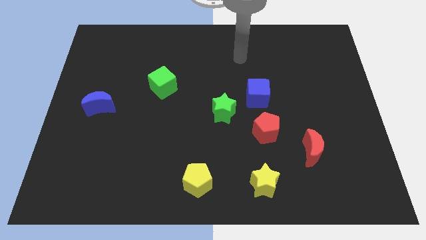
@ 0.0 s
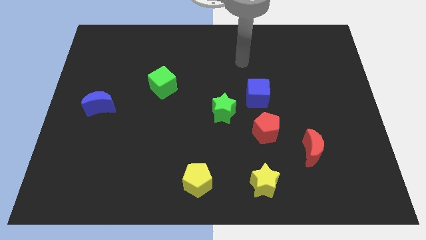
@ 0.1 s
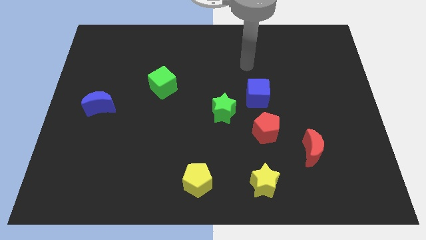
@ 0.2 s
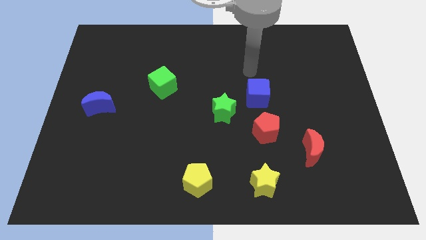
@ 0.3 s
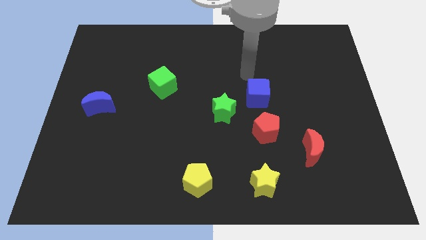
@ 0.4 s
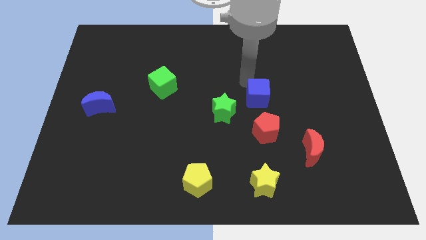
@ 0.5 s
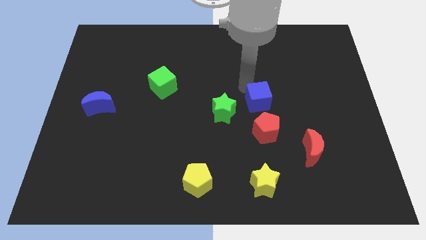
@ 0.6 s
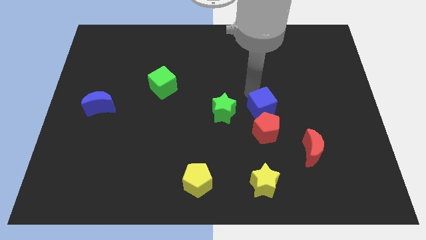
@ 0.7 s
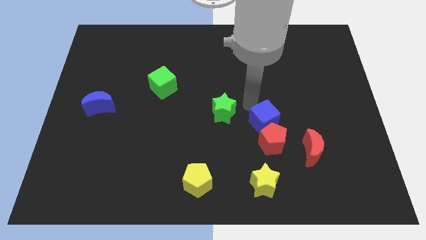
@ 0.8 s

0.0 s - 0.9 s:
pull the green star apart from the blue cube

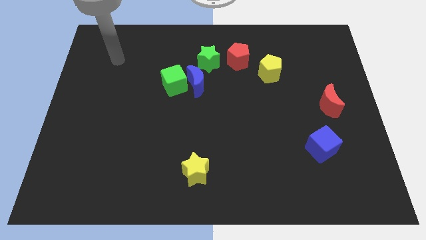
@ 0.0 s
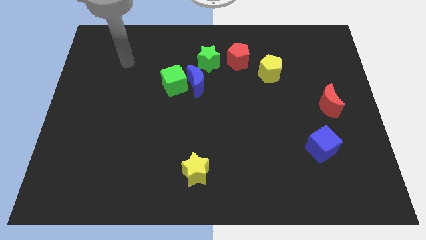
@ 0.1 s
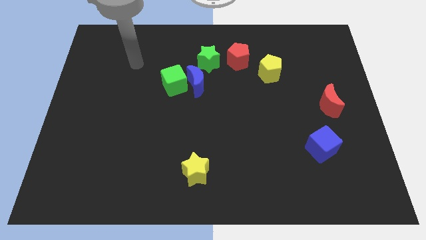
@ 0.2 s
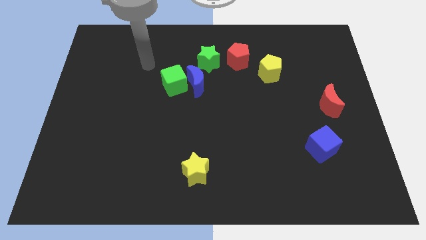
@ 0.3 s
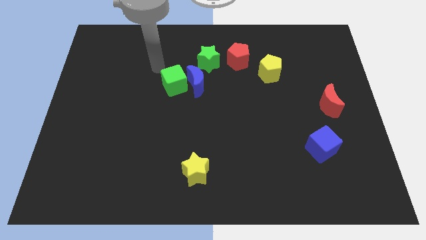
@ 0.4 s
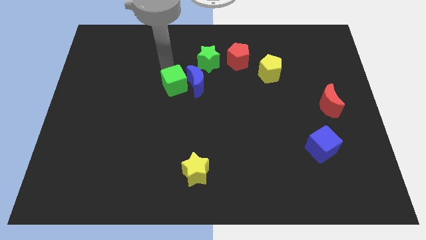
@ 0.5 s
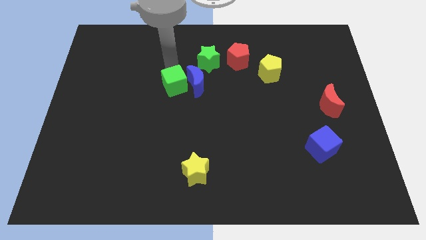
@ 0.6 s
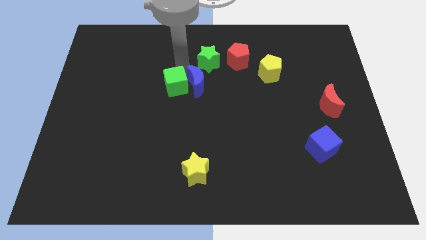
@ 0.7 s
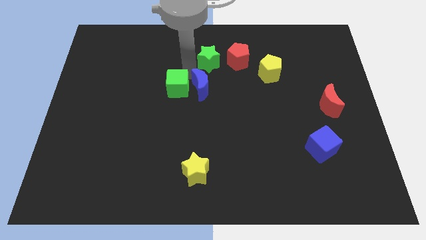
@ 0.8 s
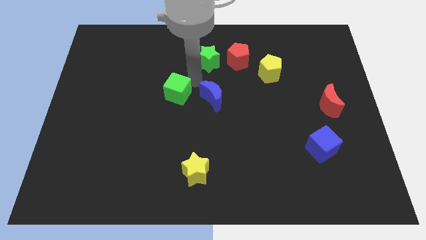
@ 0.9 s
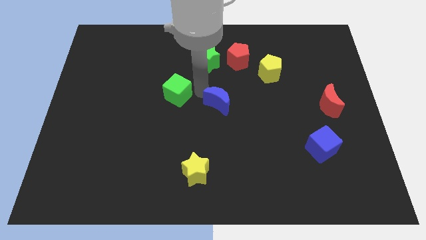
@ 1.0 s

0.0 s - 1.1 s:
pull the green cube apart from the blue moon

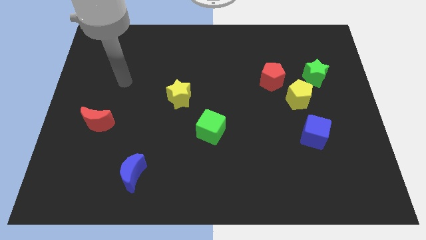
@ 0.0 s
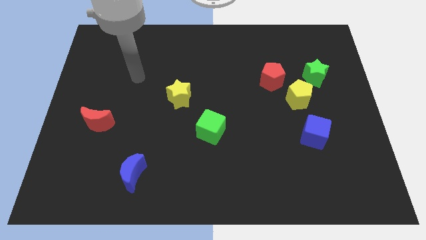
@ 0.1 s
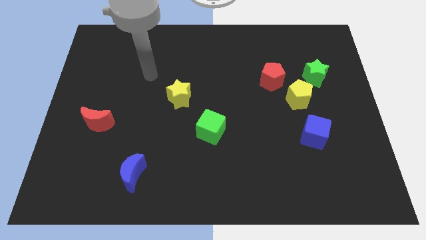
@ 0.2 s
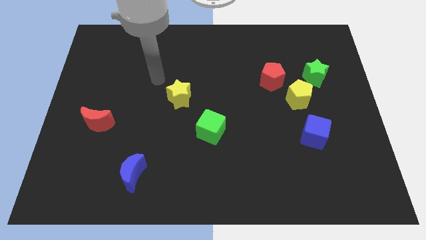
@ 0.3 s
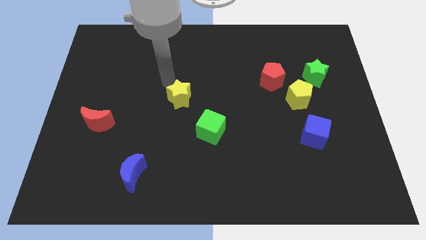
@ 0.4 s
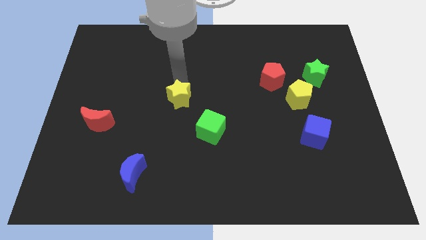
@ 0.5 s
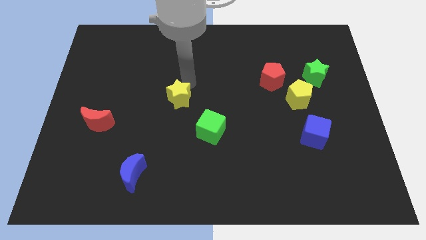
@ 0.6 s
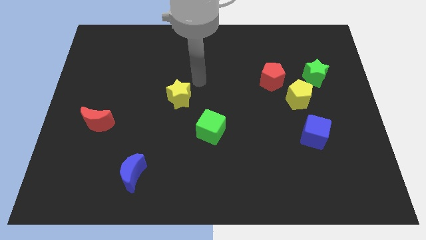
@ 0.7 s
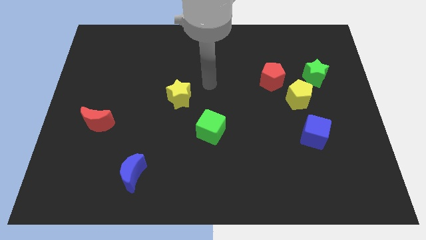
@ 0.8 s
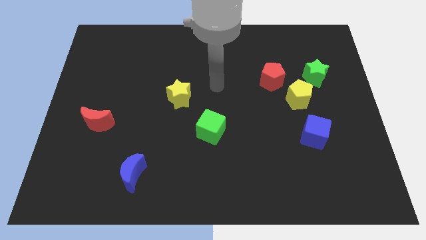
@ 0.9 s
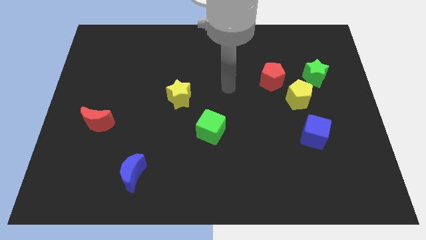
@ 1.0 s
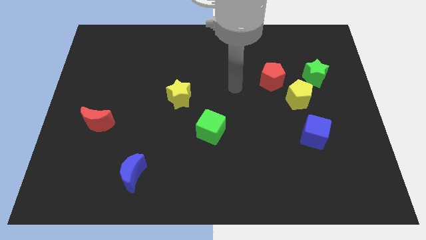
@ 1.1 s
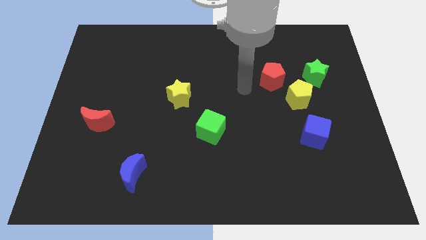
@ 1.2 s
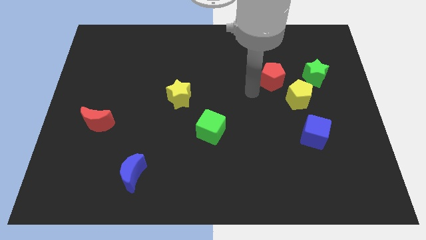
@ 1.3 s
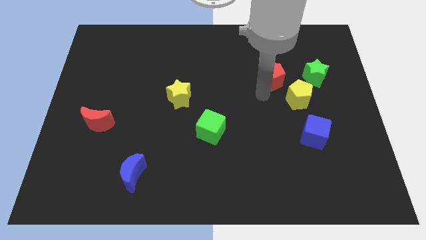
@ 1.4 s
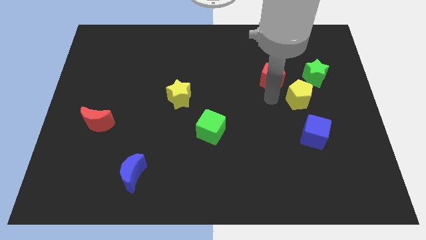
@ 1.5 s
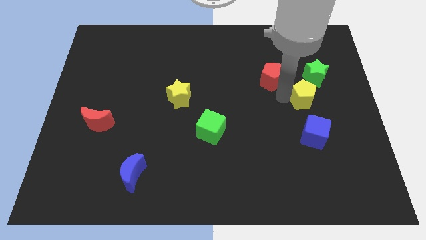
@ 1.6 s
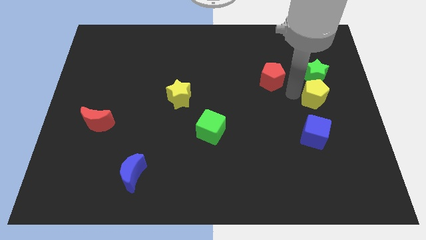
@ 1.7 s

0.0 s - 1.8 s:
separate the red pentagon from the yellow pentagon

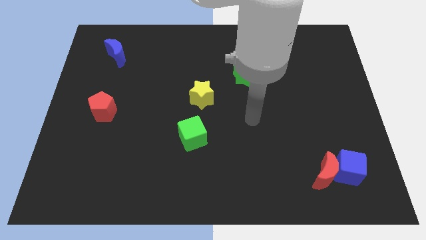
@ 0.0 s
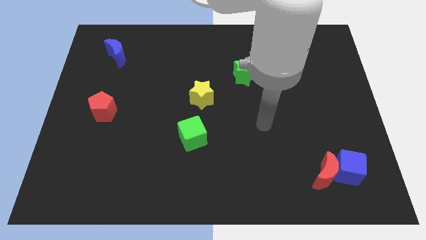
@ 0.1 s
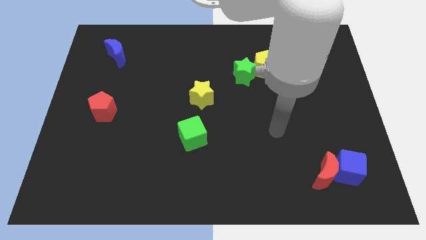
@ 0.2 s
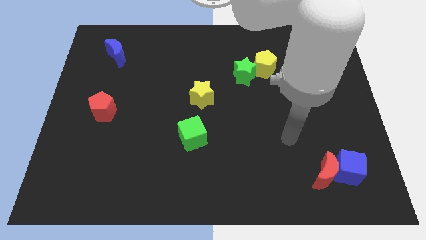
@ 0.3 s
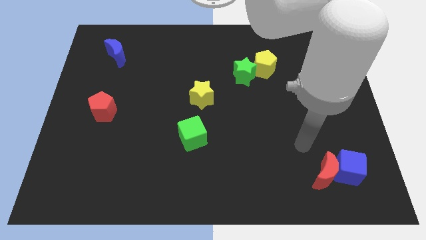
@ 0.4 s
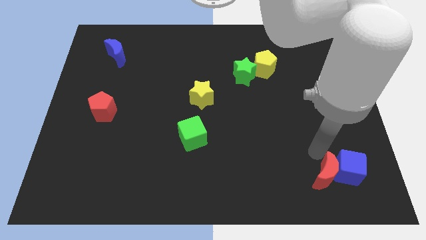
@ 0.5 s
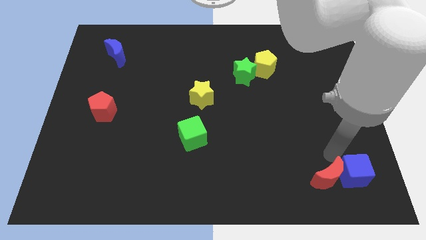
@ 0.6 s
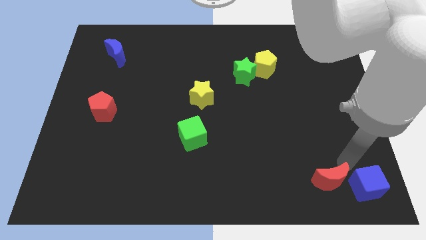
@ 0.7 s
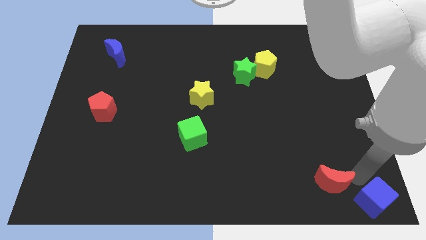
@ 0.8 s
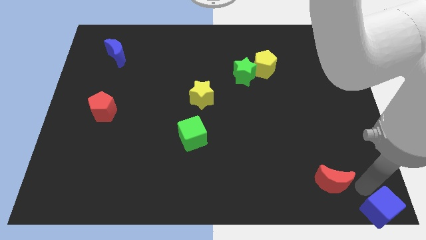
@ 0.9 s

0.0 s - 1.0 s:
separate the red moon from the blue cube

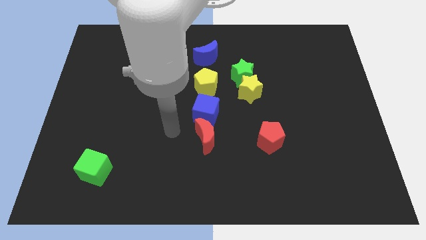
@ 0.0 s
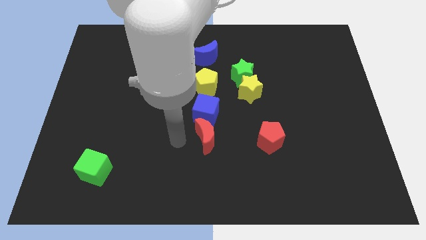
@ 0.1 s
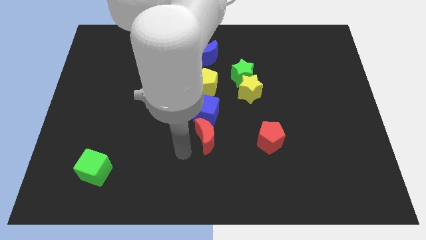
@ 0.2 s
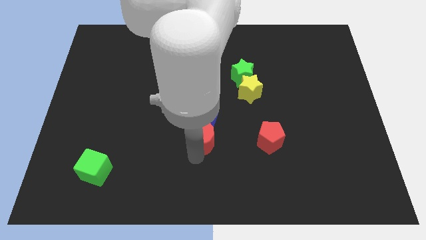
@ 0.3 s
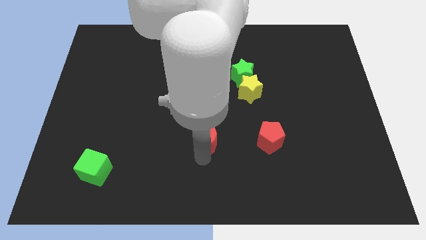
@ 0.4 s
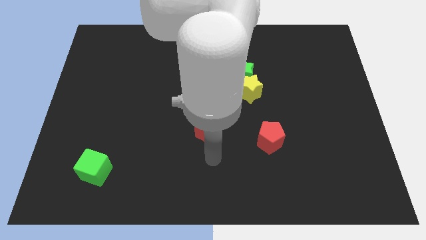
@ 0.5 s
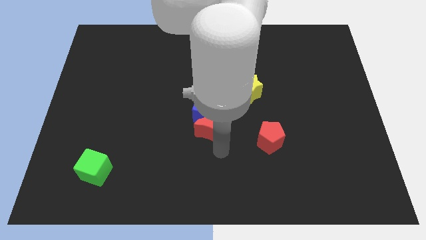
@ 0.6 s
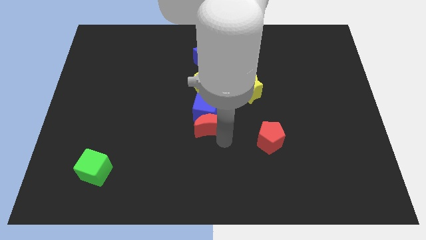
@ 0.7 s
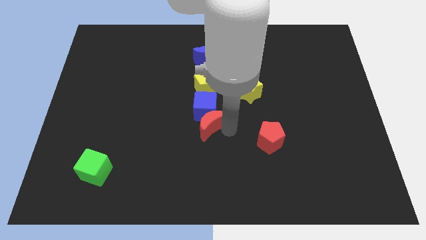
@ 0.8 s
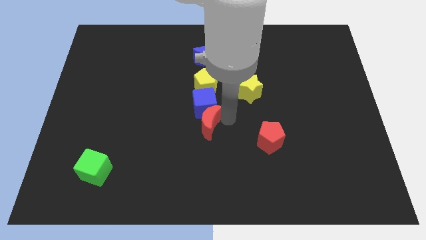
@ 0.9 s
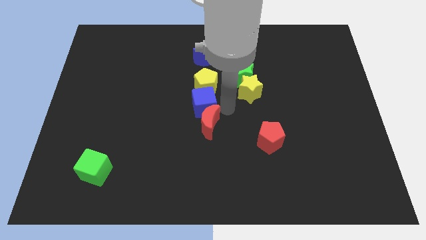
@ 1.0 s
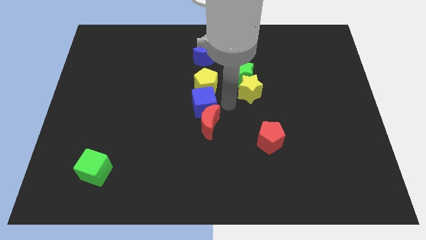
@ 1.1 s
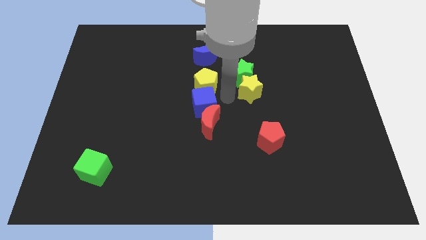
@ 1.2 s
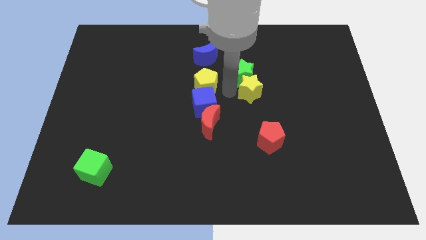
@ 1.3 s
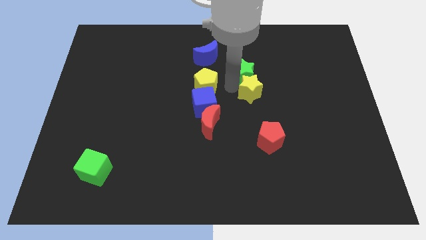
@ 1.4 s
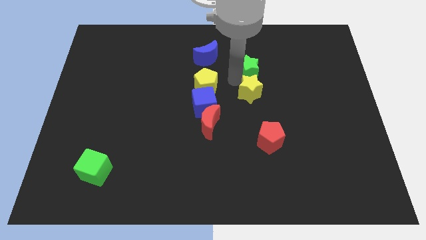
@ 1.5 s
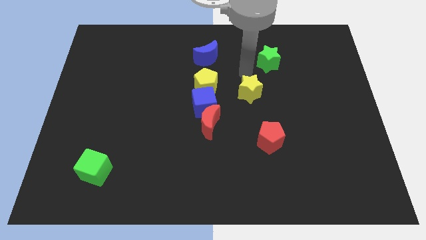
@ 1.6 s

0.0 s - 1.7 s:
move the yellow star away from the green star

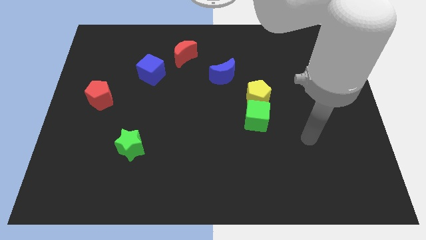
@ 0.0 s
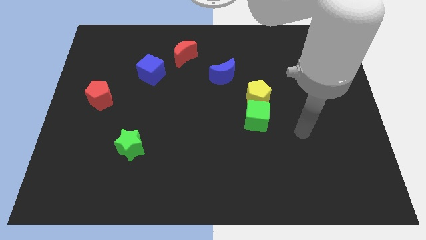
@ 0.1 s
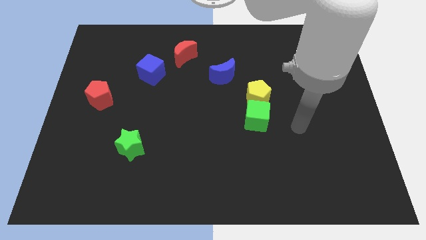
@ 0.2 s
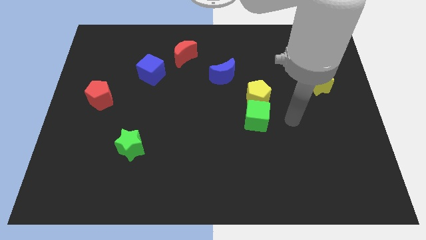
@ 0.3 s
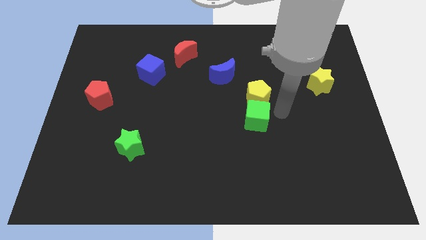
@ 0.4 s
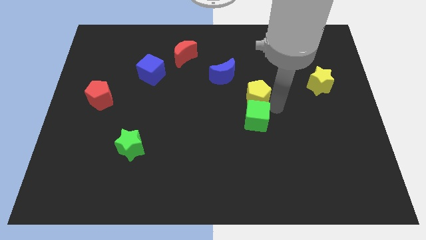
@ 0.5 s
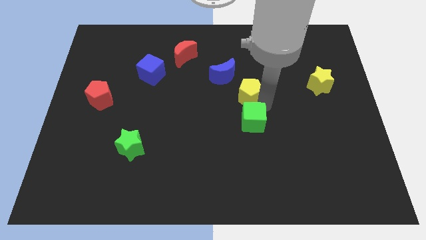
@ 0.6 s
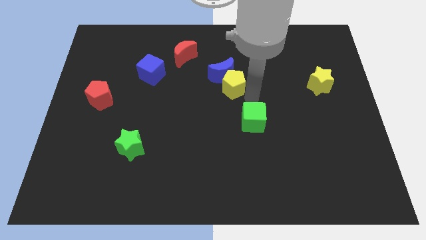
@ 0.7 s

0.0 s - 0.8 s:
separate the green cube from the yellow pentagon

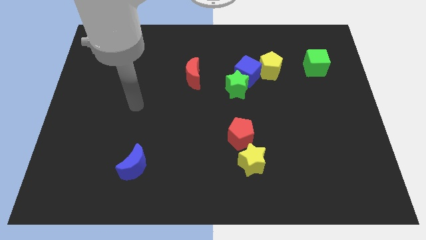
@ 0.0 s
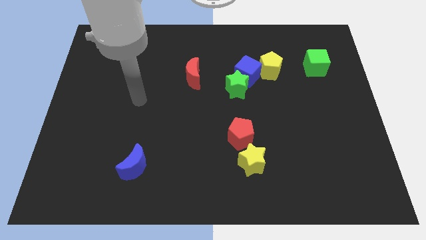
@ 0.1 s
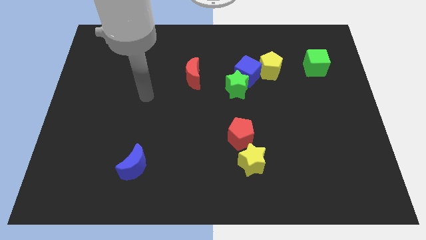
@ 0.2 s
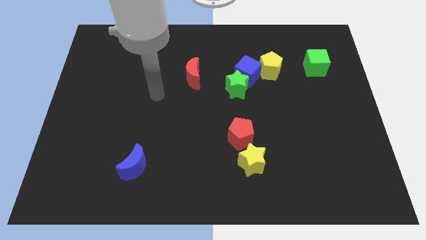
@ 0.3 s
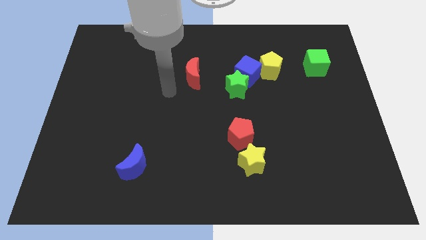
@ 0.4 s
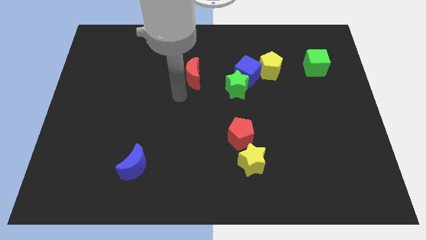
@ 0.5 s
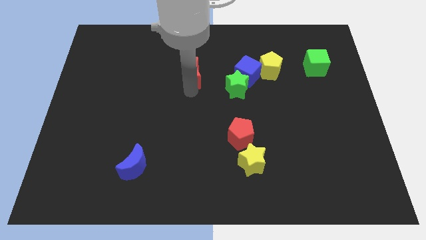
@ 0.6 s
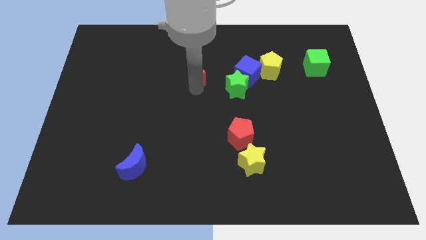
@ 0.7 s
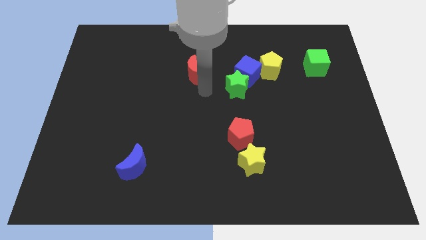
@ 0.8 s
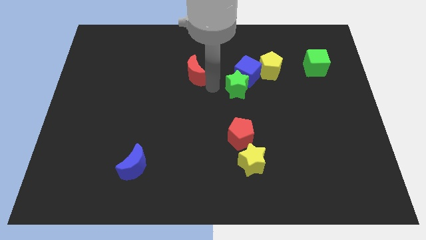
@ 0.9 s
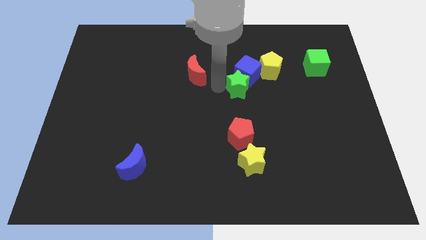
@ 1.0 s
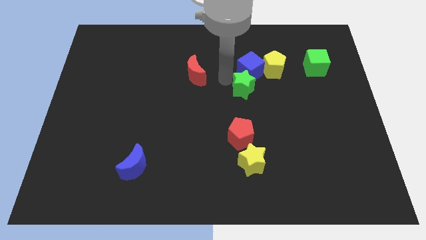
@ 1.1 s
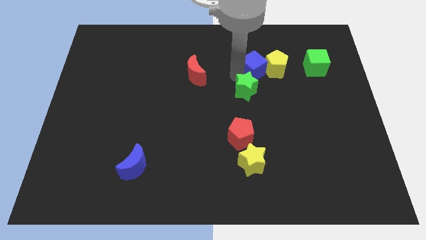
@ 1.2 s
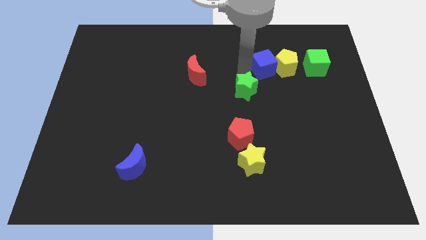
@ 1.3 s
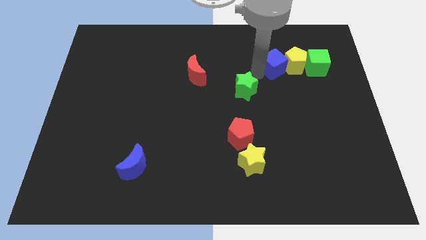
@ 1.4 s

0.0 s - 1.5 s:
separate the green star from the blue cube

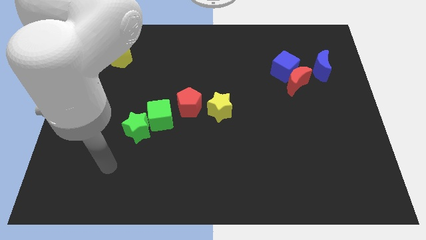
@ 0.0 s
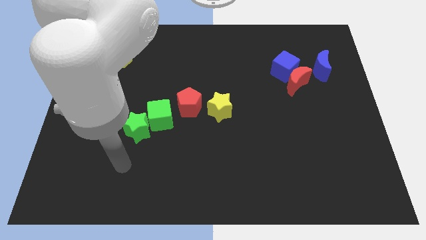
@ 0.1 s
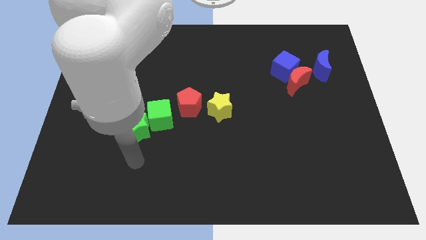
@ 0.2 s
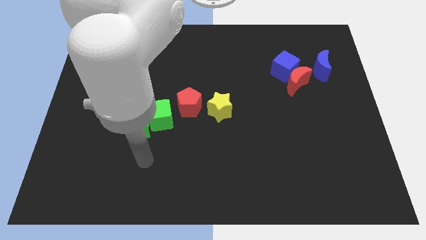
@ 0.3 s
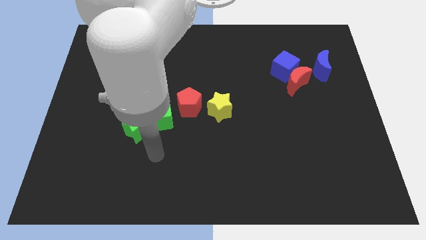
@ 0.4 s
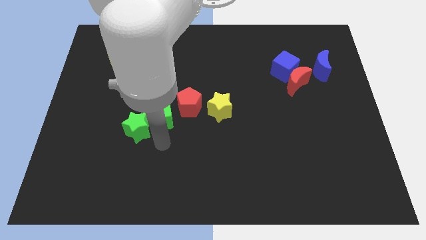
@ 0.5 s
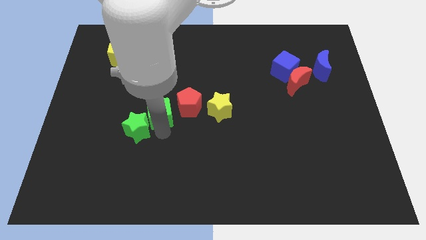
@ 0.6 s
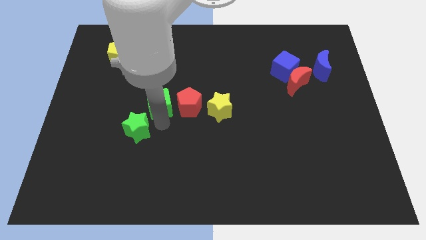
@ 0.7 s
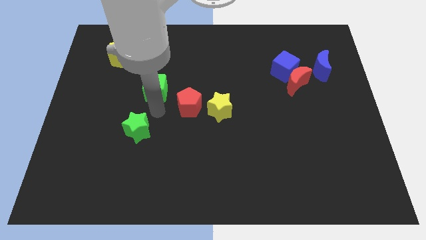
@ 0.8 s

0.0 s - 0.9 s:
separate the green star from the green cube
